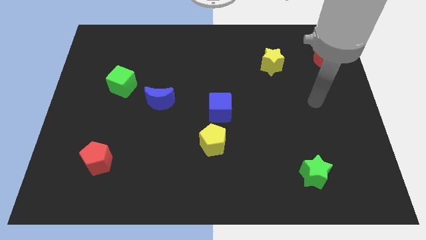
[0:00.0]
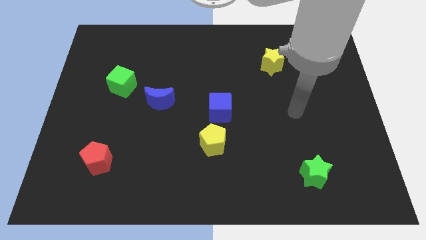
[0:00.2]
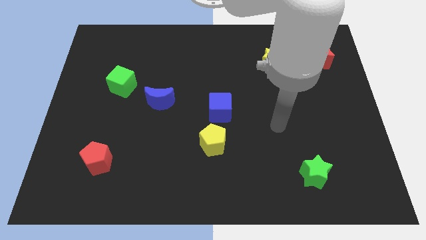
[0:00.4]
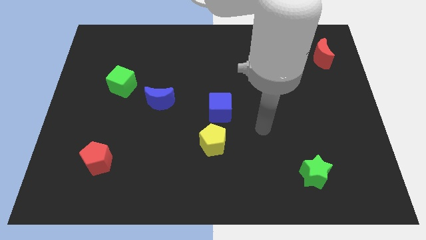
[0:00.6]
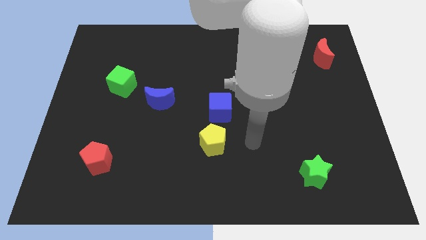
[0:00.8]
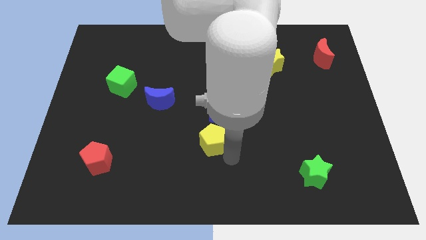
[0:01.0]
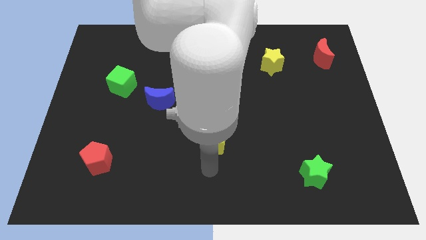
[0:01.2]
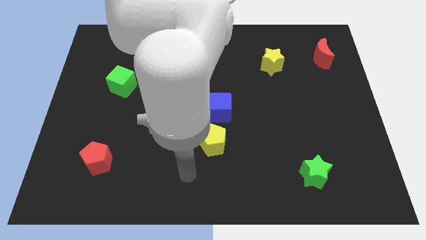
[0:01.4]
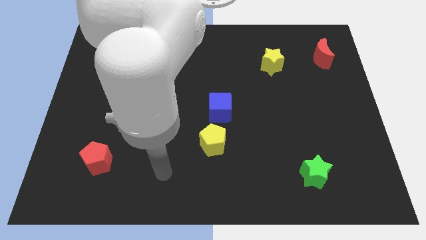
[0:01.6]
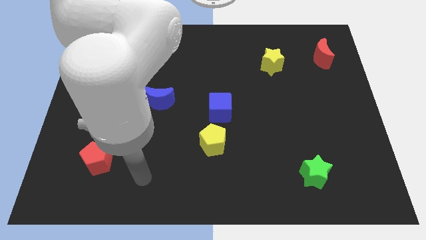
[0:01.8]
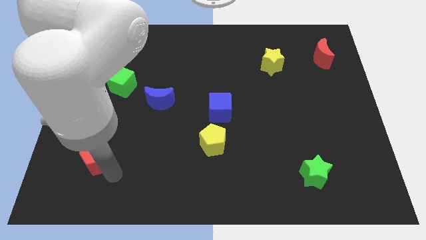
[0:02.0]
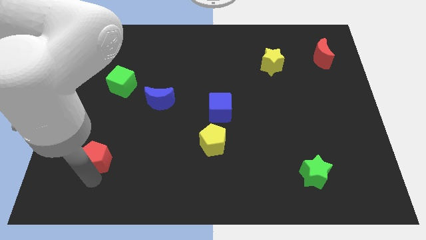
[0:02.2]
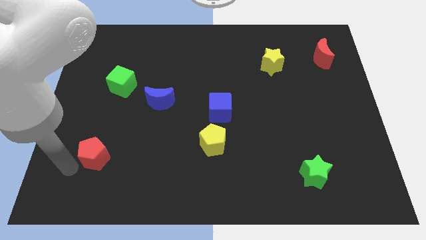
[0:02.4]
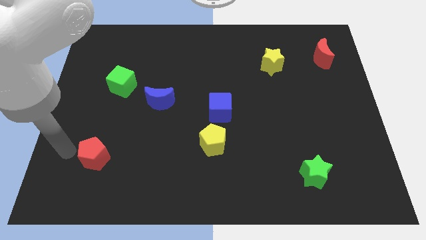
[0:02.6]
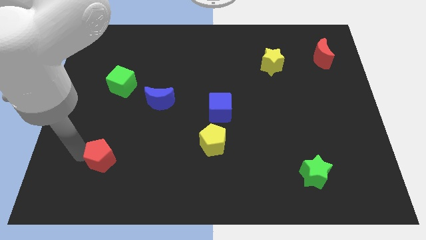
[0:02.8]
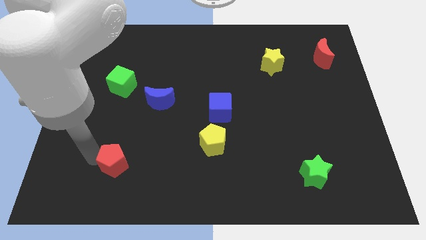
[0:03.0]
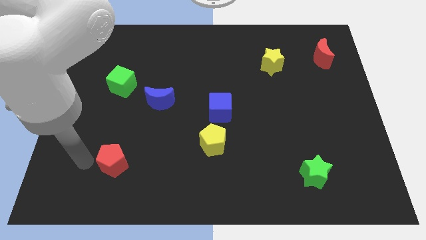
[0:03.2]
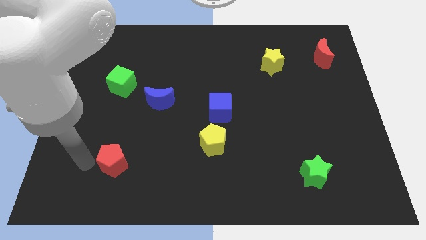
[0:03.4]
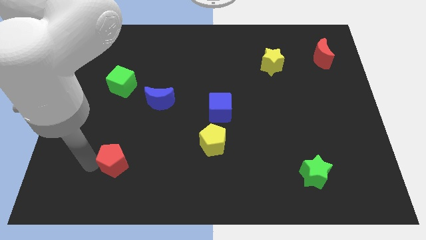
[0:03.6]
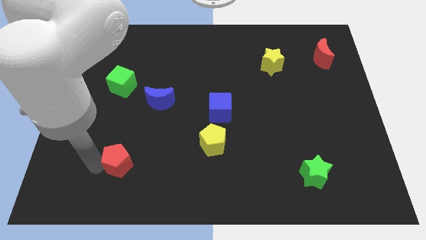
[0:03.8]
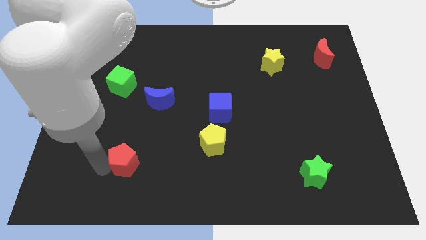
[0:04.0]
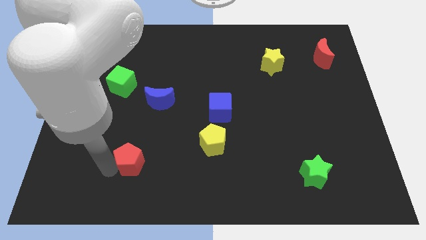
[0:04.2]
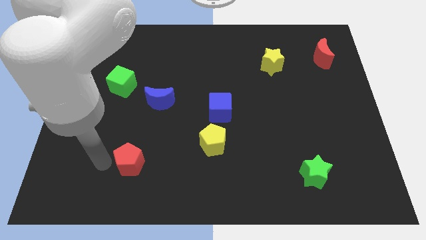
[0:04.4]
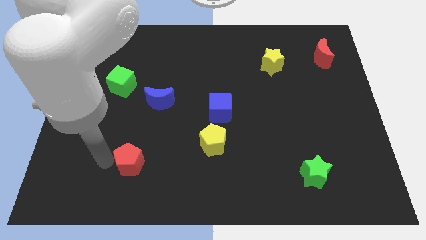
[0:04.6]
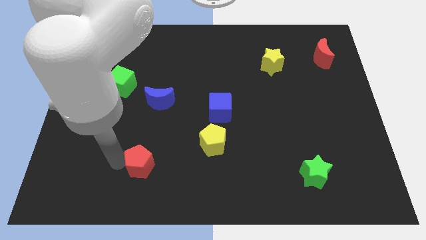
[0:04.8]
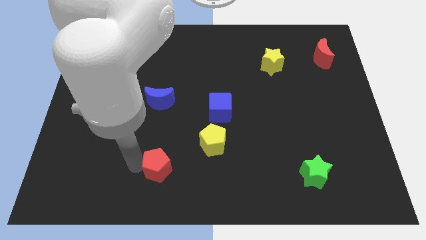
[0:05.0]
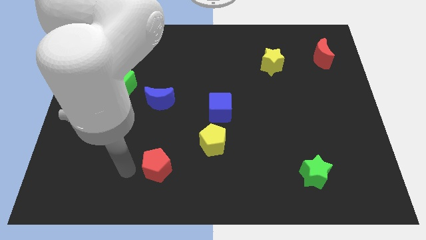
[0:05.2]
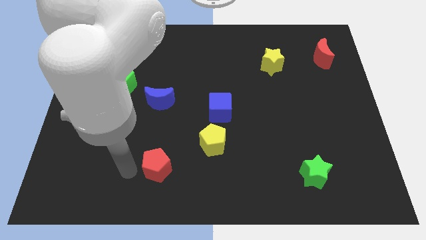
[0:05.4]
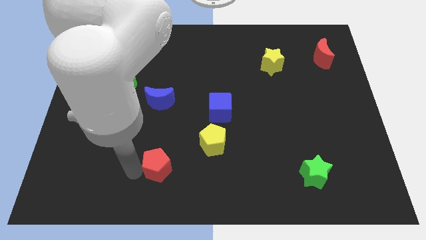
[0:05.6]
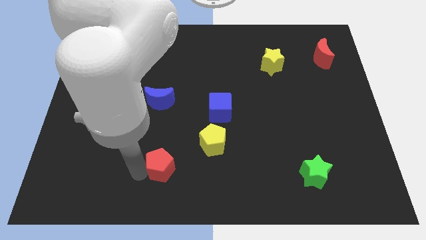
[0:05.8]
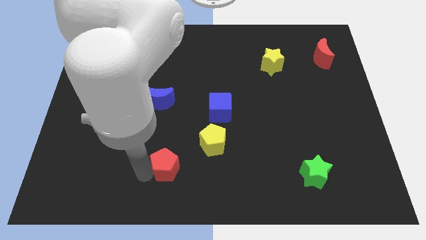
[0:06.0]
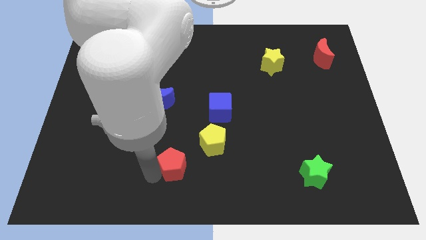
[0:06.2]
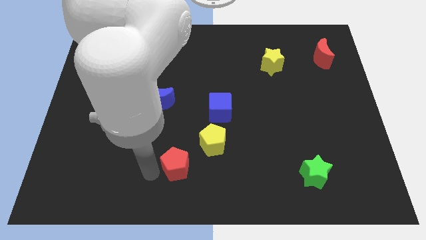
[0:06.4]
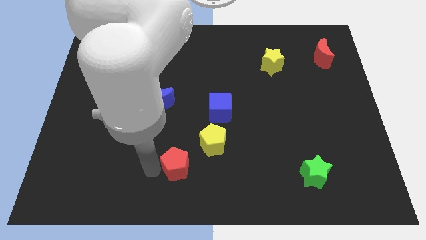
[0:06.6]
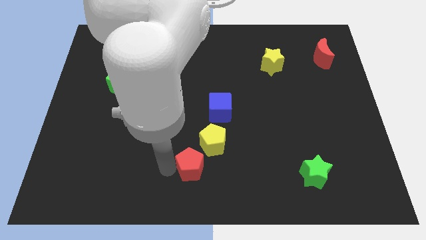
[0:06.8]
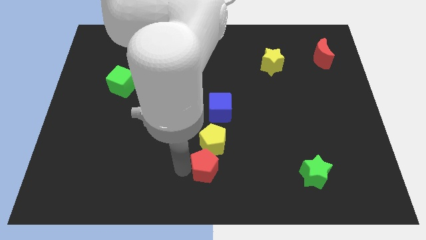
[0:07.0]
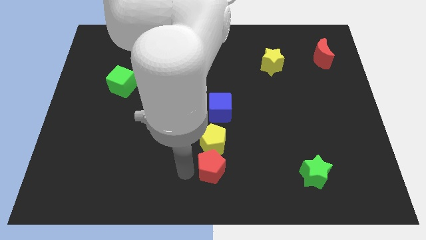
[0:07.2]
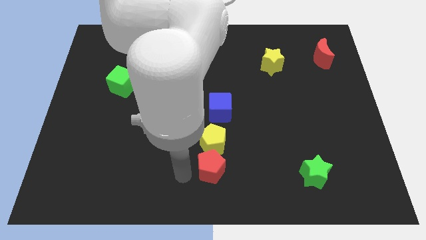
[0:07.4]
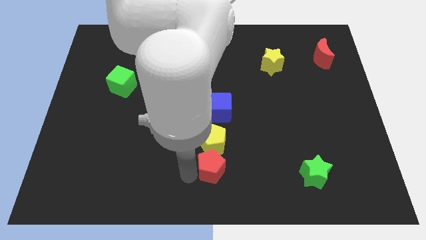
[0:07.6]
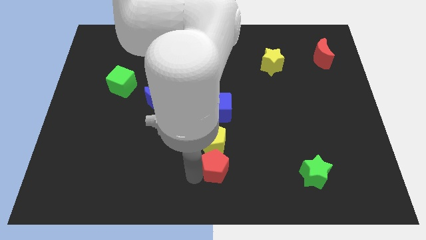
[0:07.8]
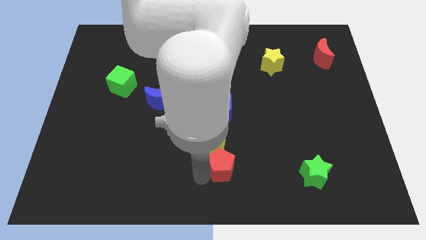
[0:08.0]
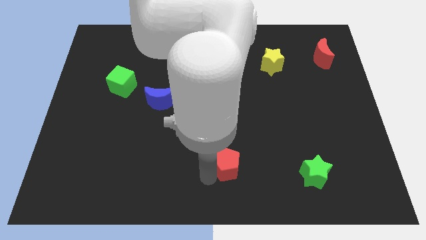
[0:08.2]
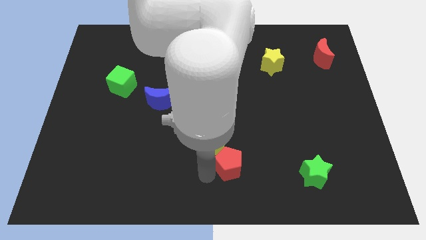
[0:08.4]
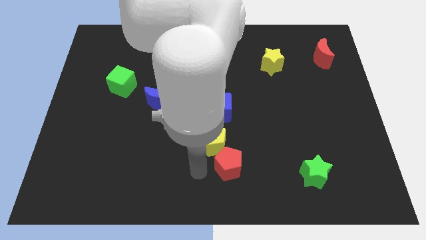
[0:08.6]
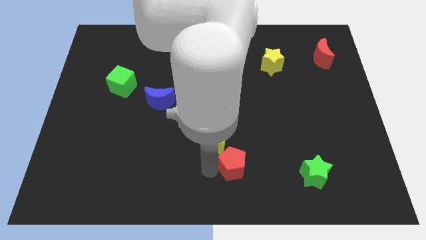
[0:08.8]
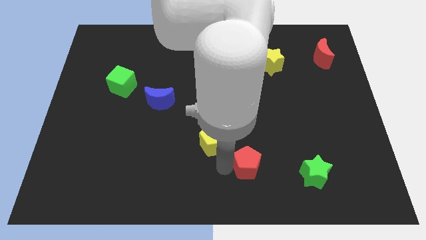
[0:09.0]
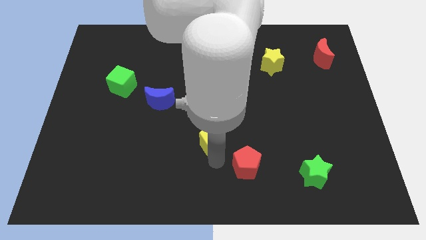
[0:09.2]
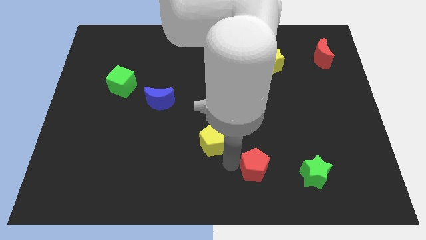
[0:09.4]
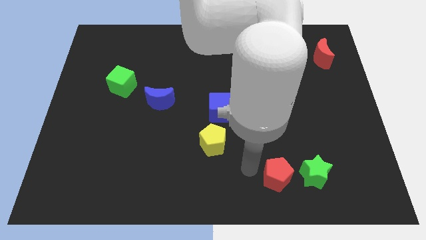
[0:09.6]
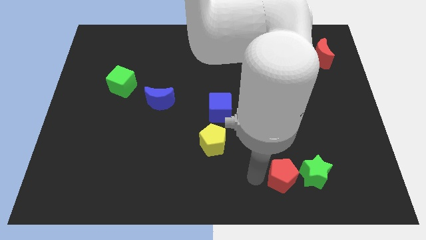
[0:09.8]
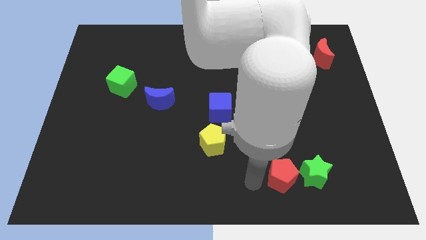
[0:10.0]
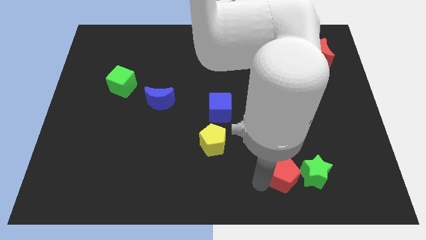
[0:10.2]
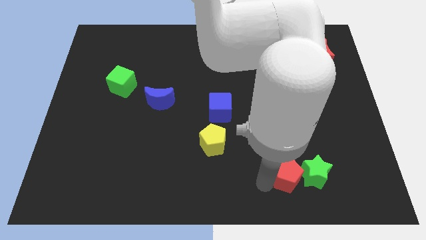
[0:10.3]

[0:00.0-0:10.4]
push the red pentagon towards the green star

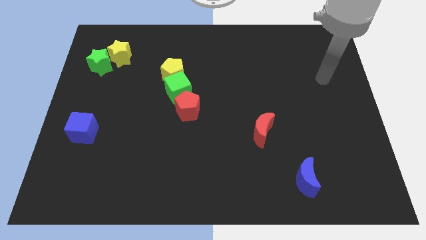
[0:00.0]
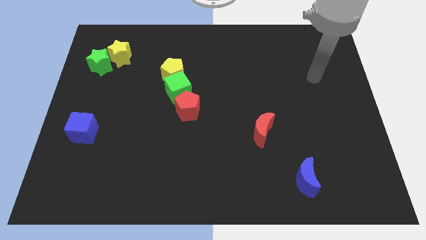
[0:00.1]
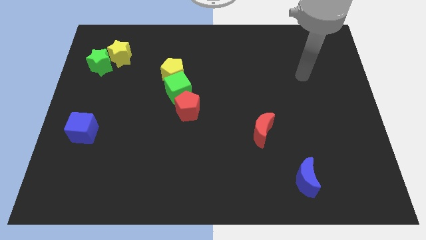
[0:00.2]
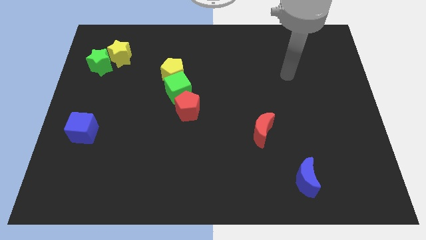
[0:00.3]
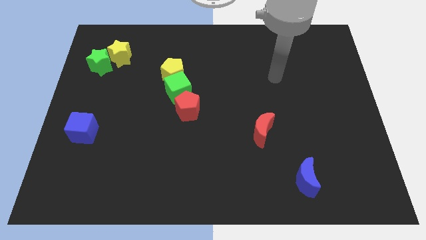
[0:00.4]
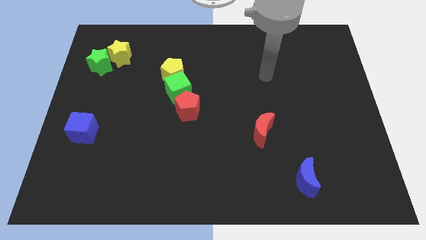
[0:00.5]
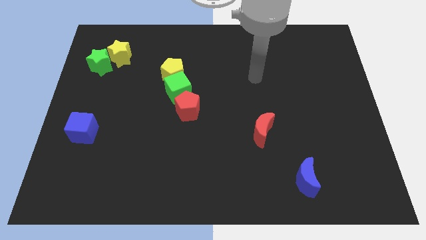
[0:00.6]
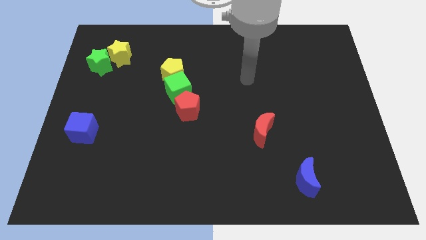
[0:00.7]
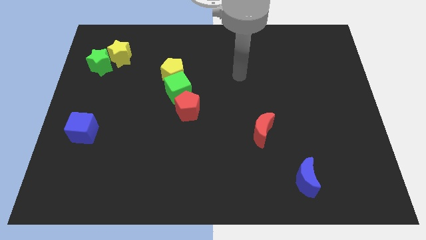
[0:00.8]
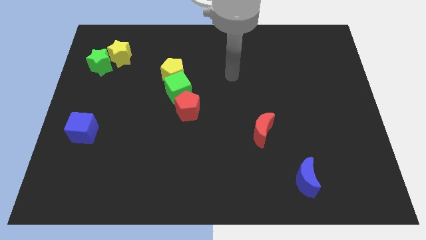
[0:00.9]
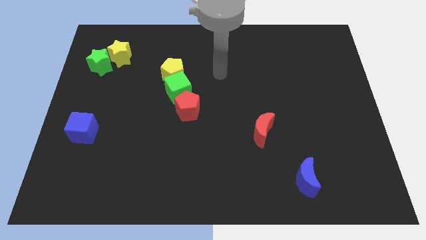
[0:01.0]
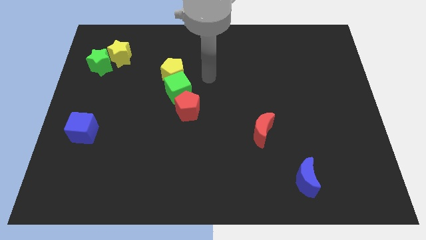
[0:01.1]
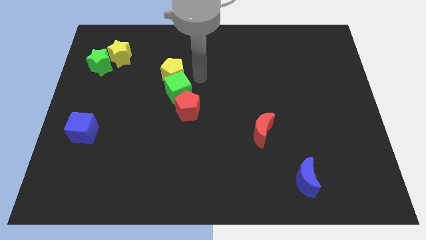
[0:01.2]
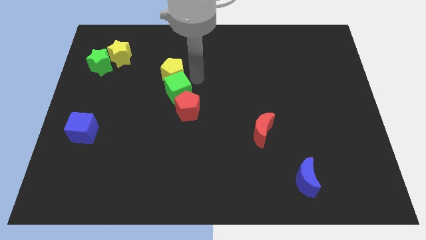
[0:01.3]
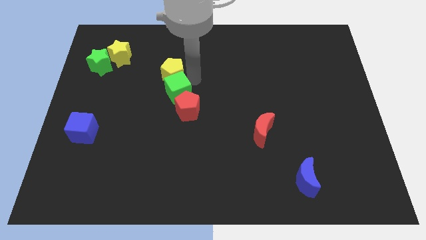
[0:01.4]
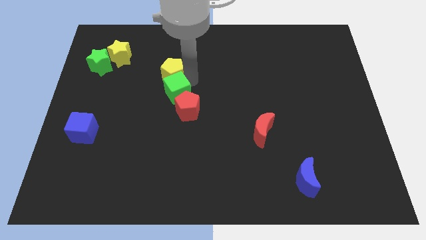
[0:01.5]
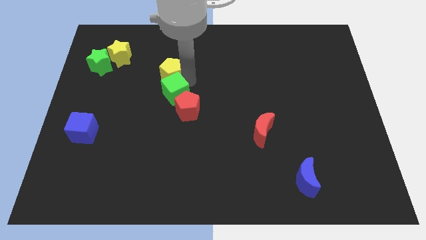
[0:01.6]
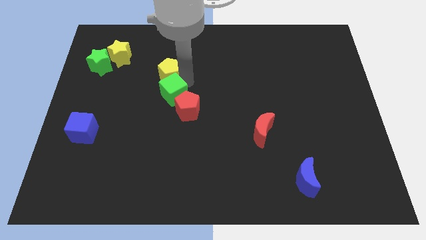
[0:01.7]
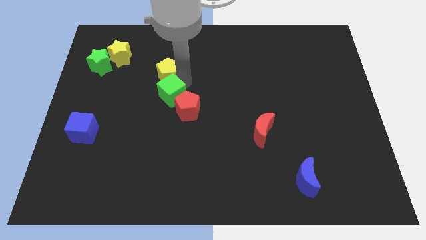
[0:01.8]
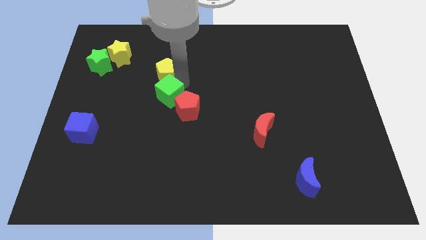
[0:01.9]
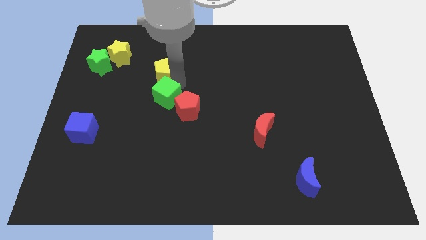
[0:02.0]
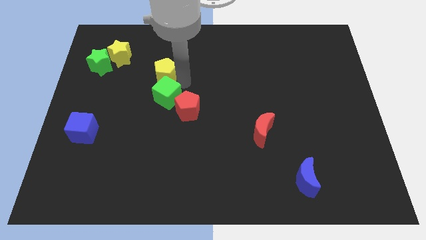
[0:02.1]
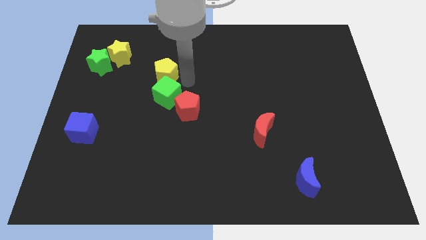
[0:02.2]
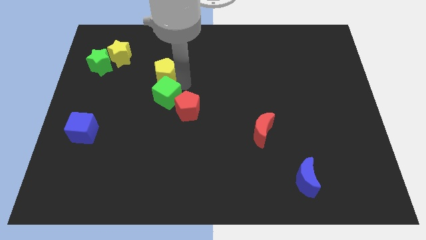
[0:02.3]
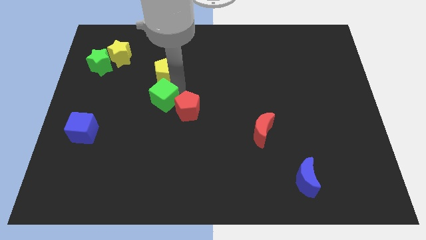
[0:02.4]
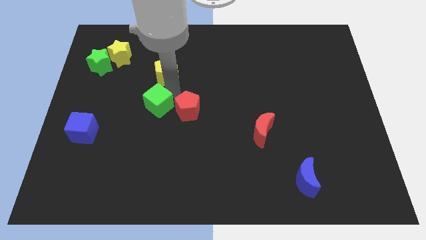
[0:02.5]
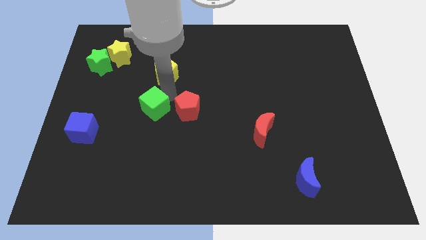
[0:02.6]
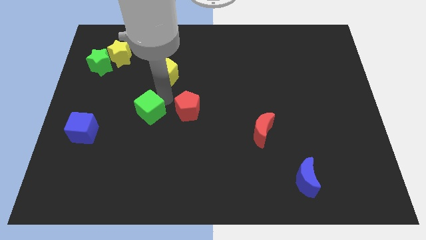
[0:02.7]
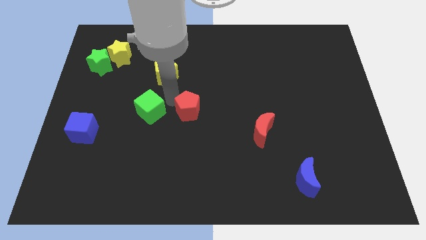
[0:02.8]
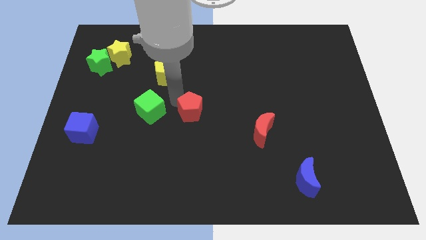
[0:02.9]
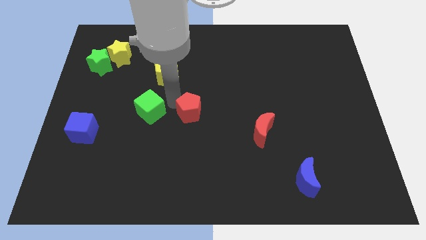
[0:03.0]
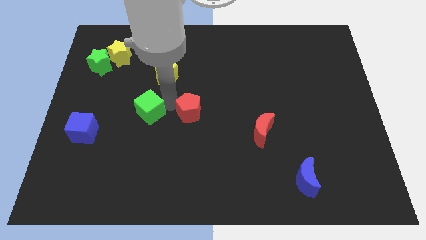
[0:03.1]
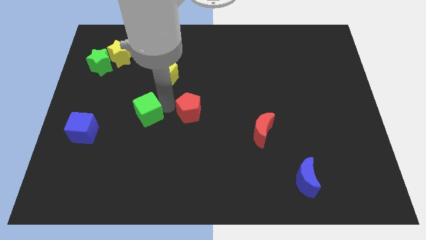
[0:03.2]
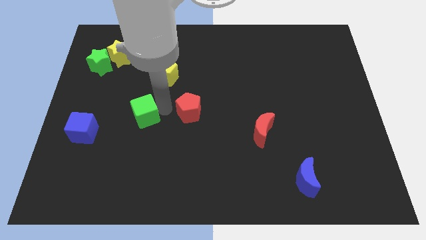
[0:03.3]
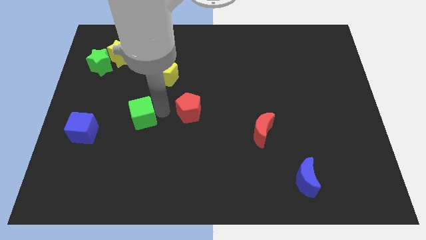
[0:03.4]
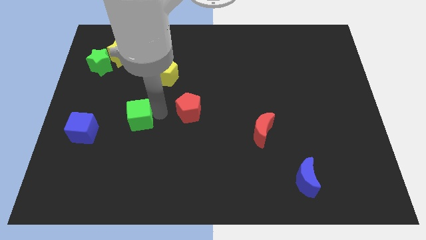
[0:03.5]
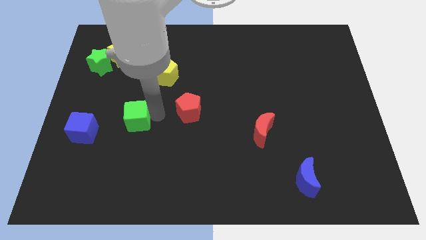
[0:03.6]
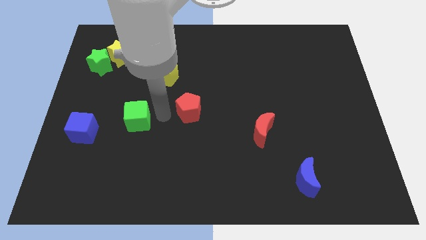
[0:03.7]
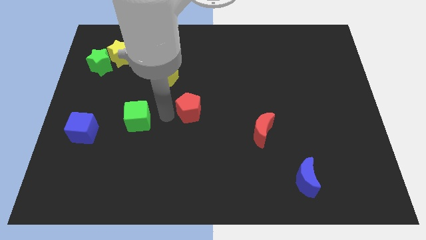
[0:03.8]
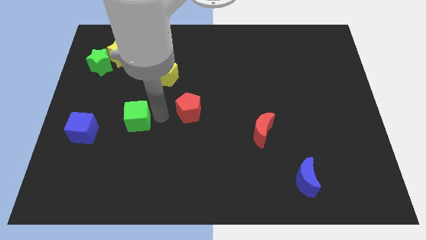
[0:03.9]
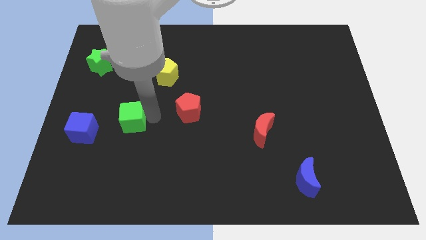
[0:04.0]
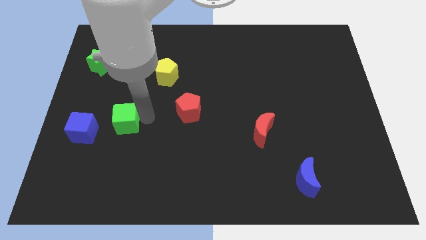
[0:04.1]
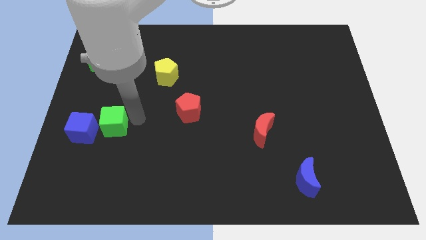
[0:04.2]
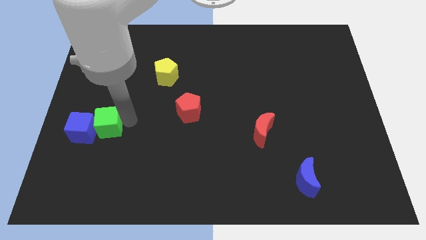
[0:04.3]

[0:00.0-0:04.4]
slide the green cube to the blue cube
